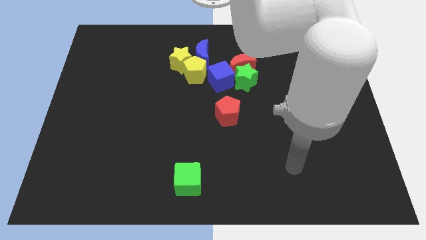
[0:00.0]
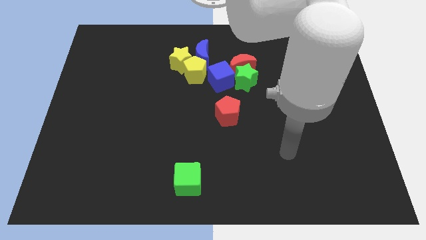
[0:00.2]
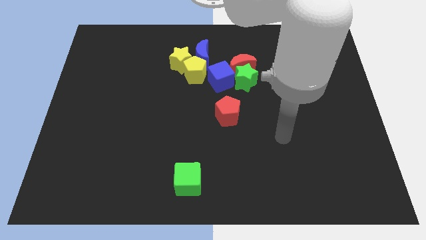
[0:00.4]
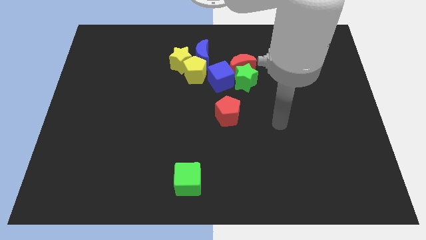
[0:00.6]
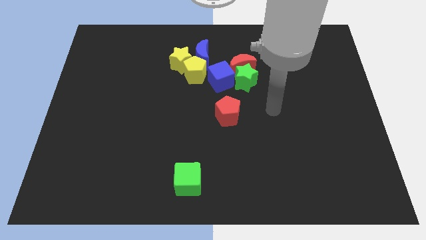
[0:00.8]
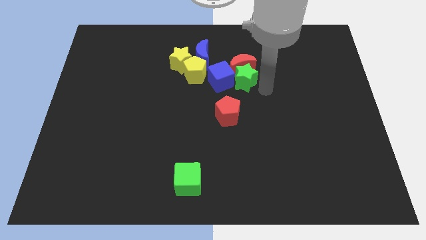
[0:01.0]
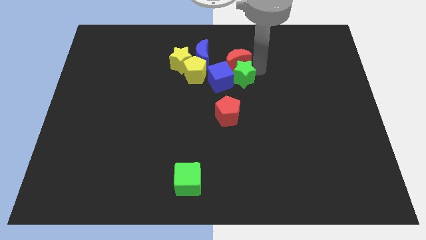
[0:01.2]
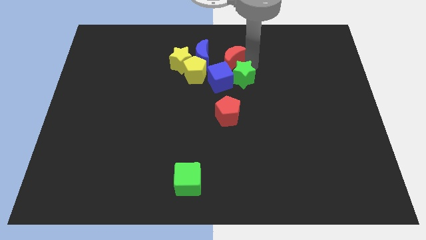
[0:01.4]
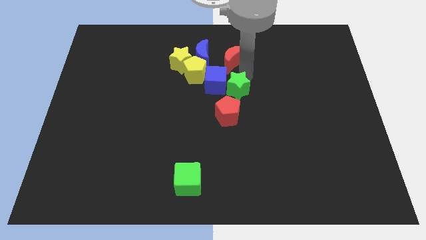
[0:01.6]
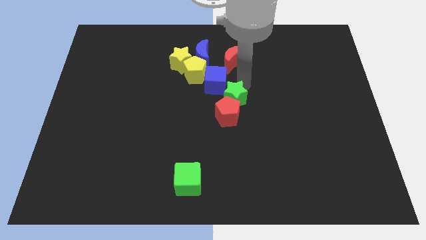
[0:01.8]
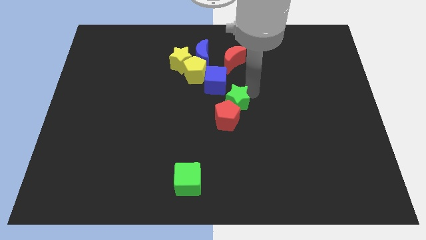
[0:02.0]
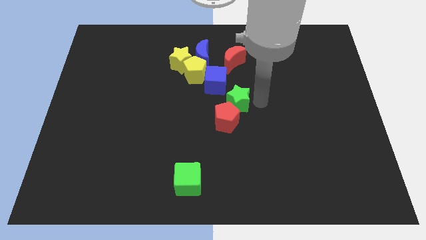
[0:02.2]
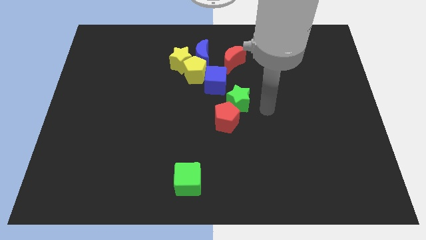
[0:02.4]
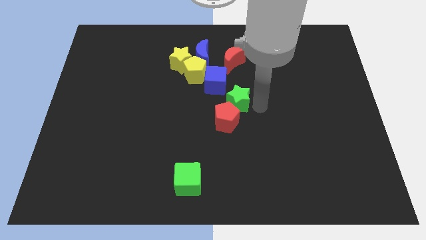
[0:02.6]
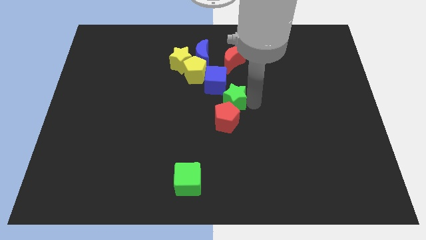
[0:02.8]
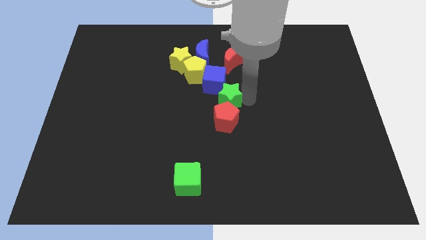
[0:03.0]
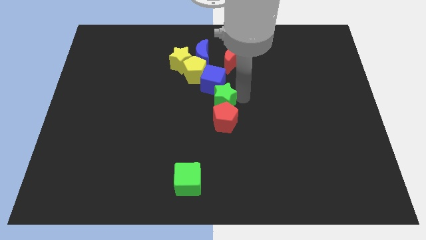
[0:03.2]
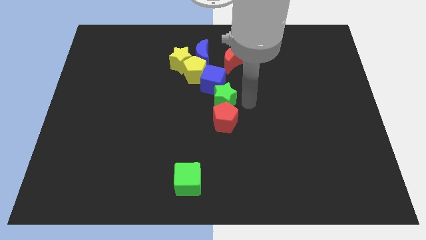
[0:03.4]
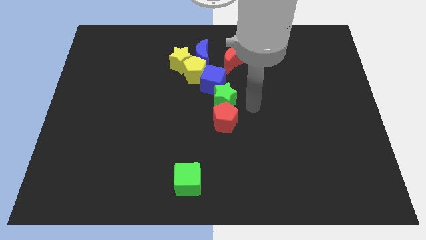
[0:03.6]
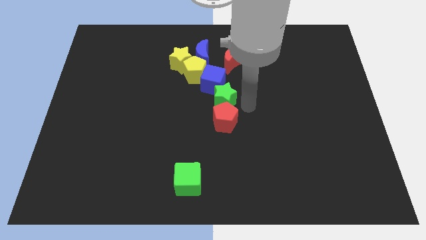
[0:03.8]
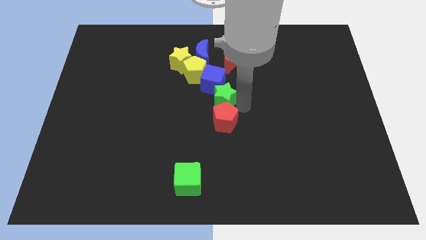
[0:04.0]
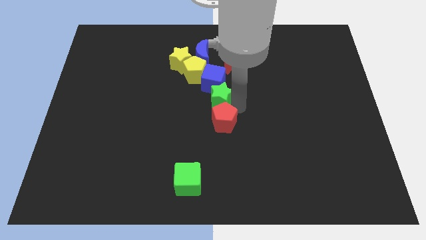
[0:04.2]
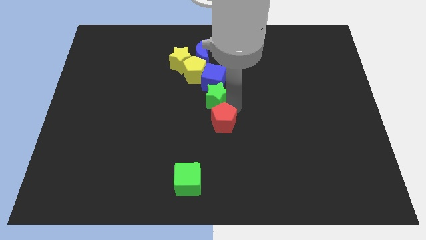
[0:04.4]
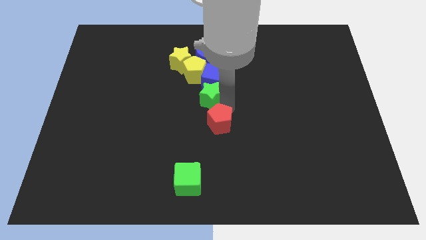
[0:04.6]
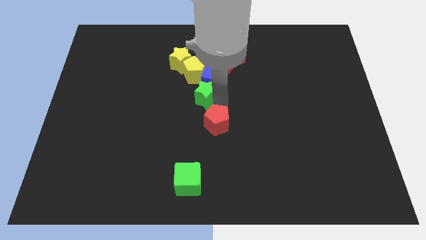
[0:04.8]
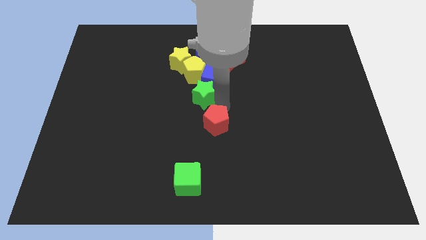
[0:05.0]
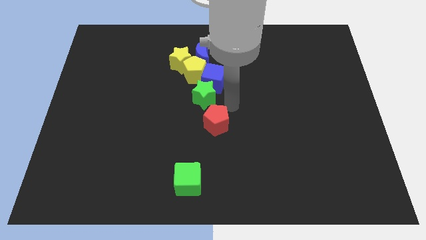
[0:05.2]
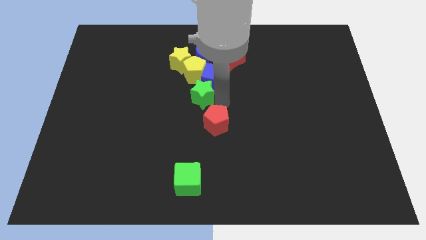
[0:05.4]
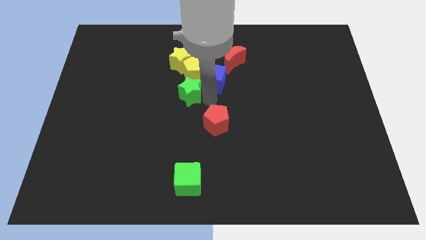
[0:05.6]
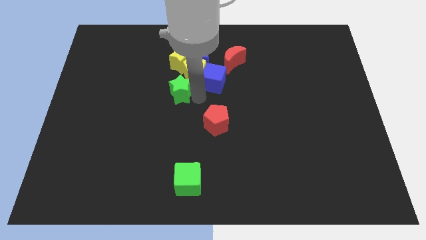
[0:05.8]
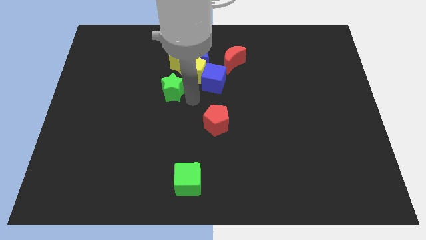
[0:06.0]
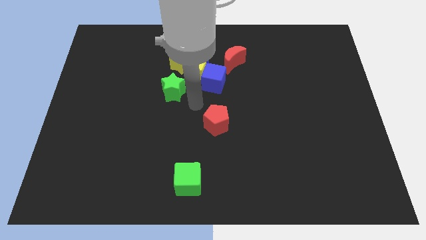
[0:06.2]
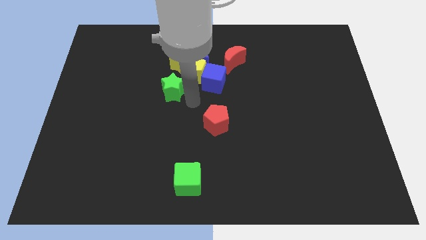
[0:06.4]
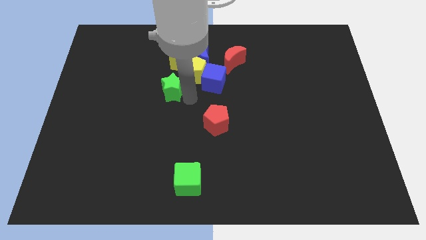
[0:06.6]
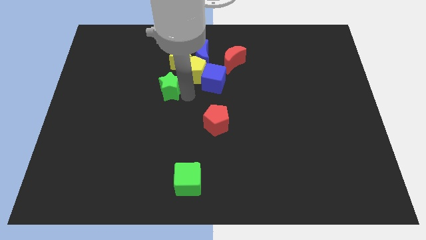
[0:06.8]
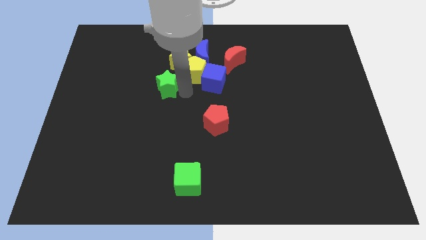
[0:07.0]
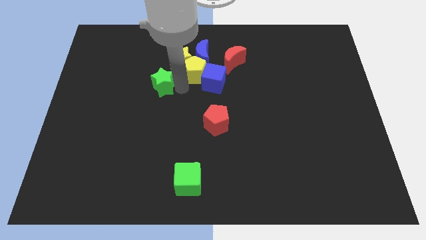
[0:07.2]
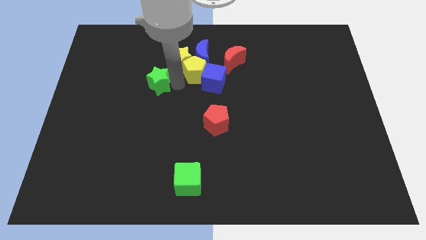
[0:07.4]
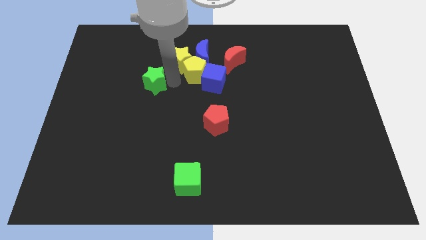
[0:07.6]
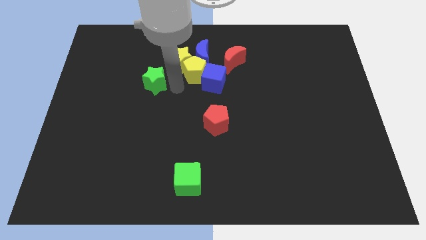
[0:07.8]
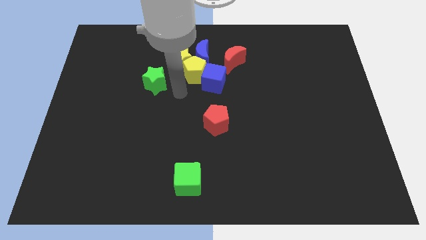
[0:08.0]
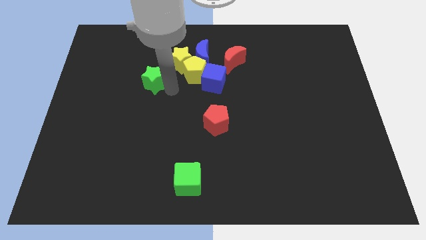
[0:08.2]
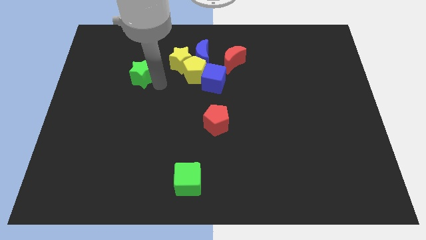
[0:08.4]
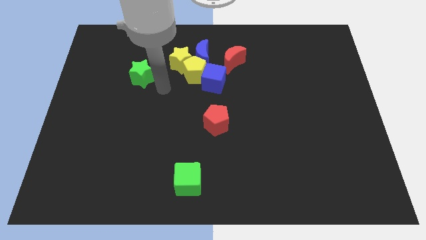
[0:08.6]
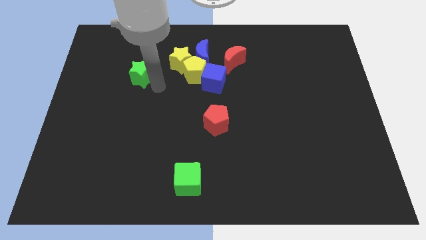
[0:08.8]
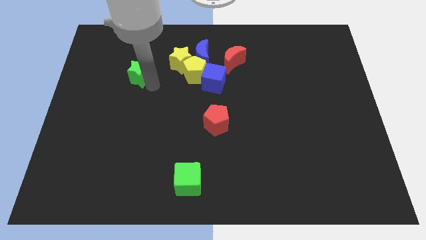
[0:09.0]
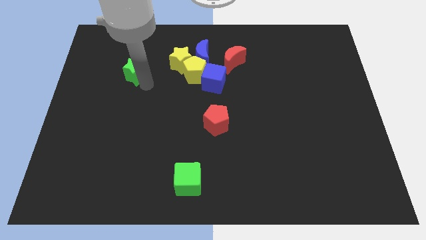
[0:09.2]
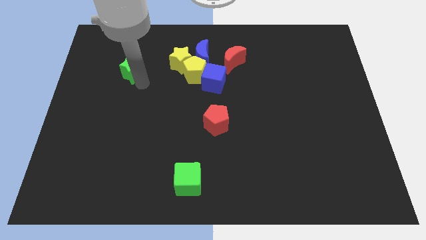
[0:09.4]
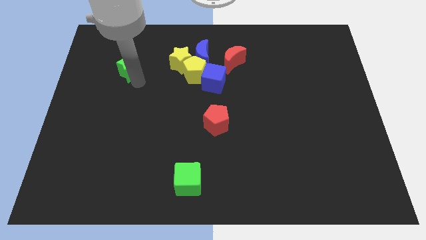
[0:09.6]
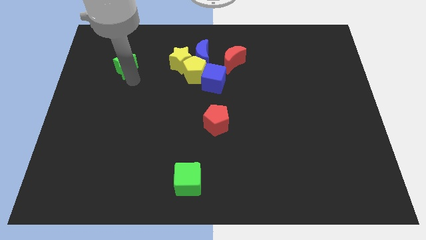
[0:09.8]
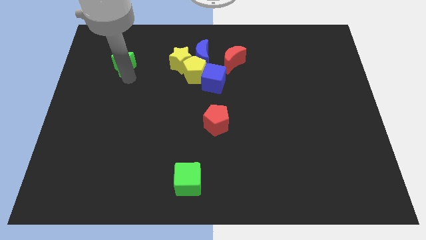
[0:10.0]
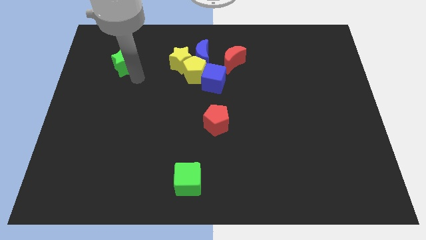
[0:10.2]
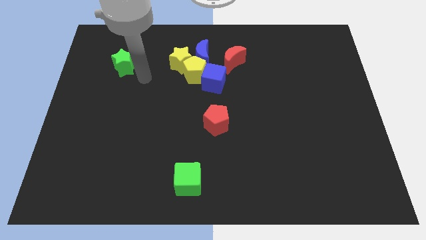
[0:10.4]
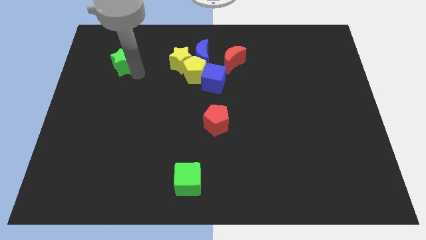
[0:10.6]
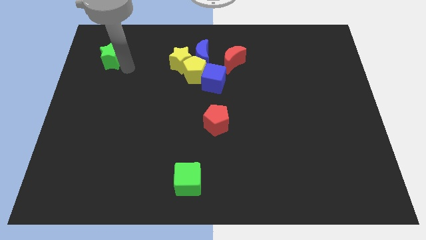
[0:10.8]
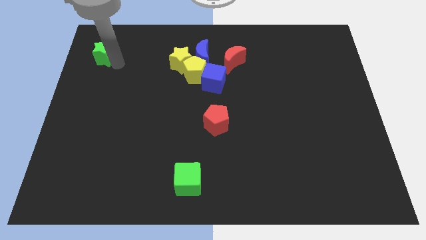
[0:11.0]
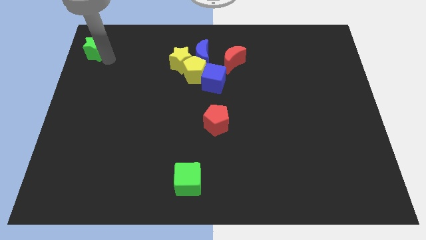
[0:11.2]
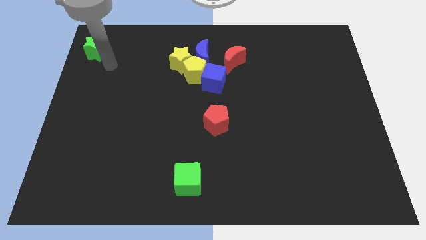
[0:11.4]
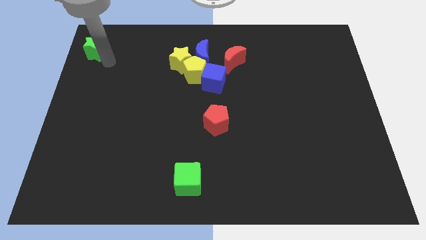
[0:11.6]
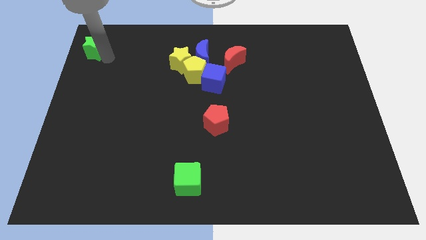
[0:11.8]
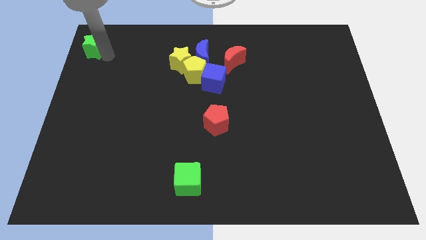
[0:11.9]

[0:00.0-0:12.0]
put the green star to the top left corner
